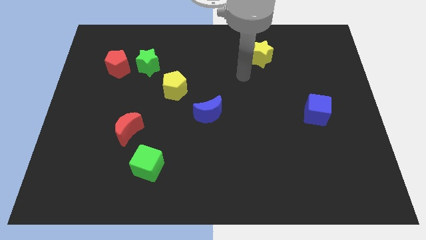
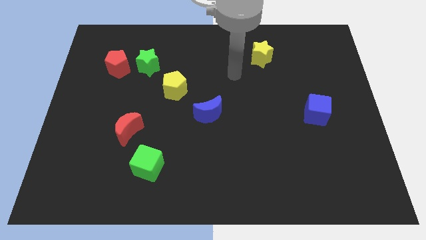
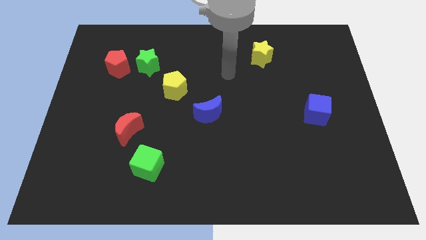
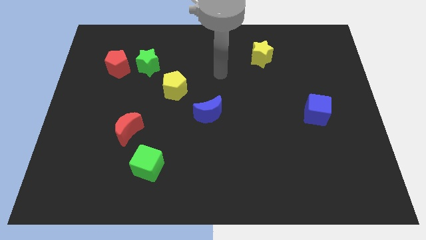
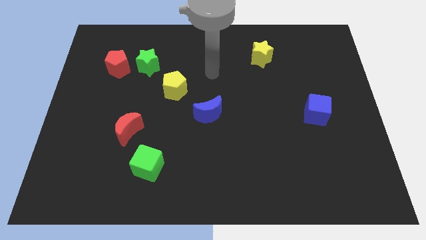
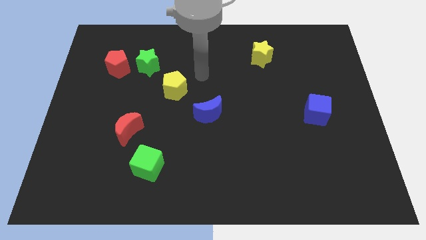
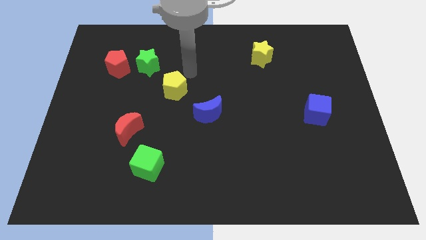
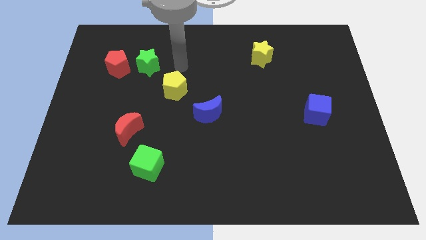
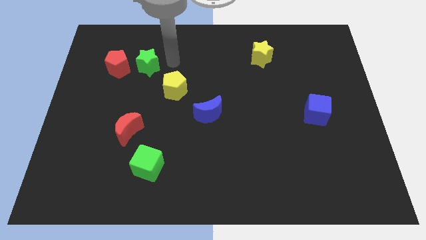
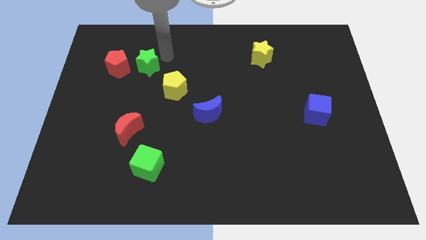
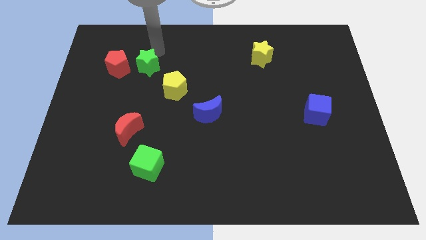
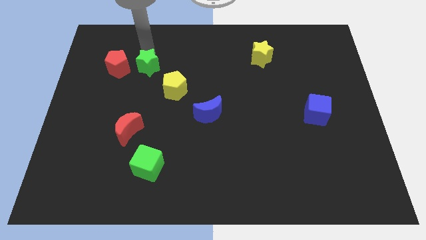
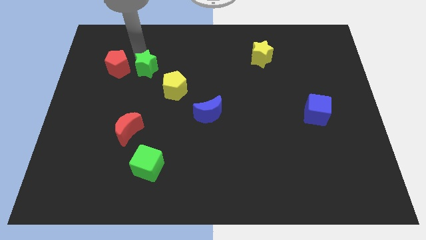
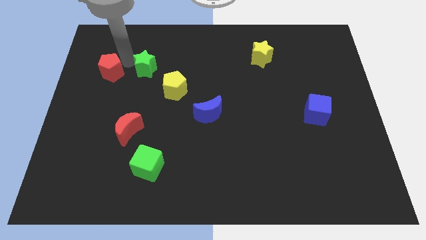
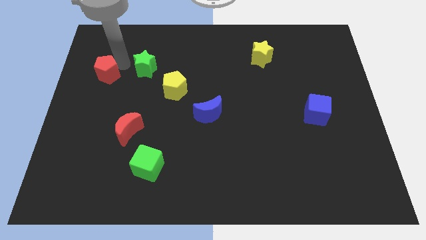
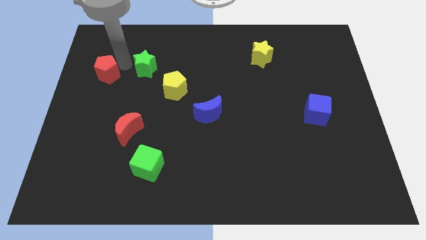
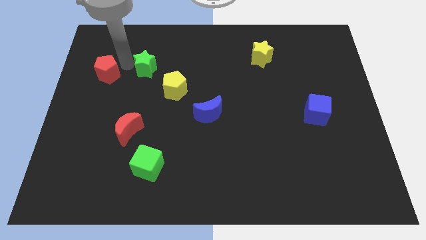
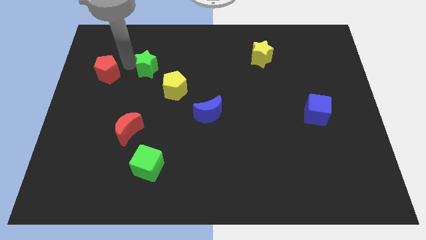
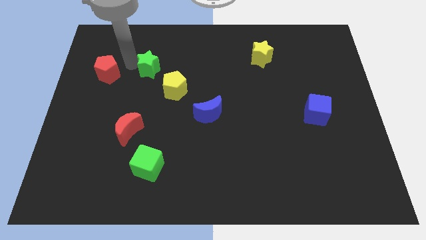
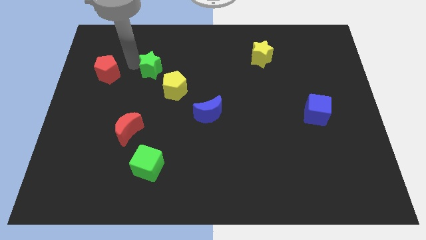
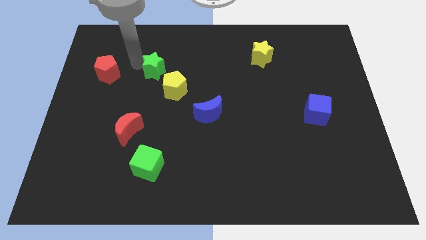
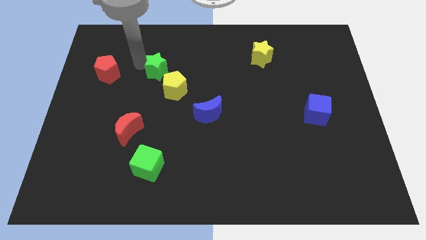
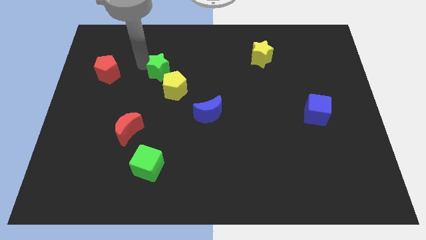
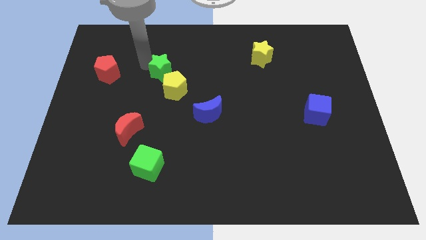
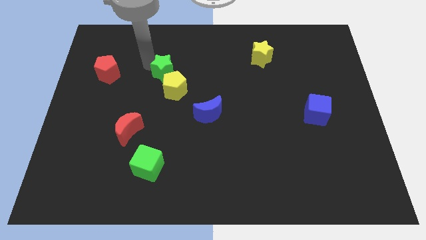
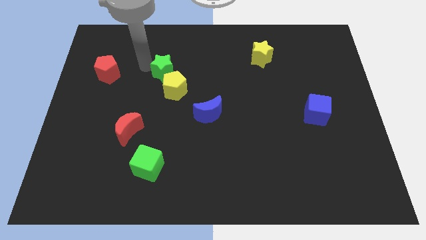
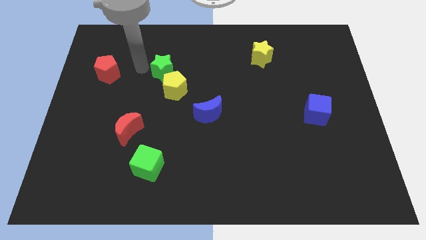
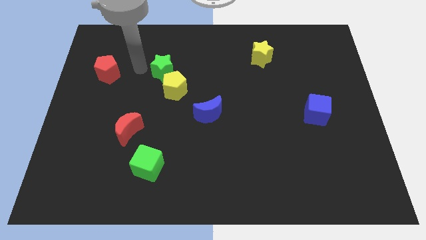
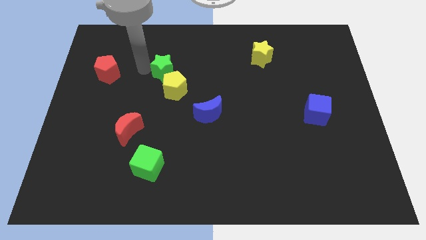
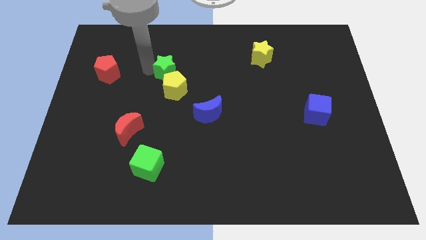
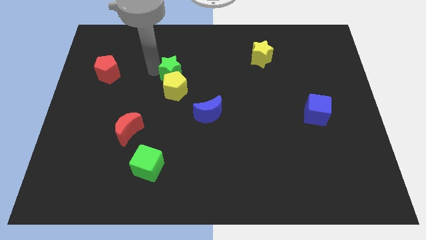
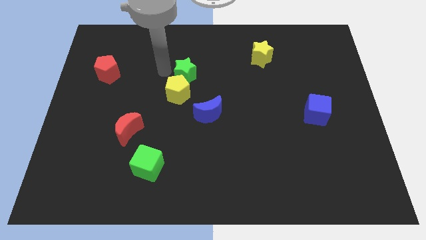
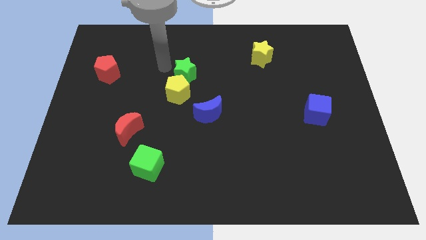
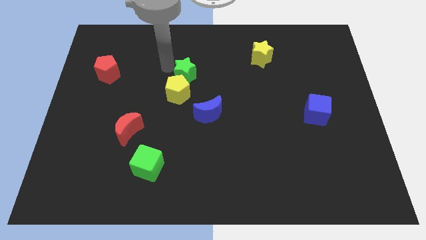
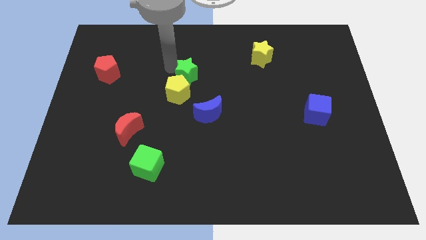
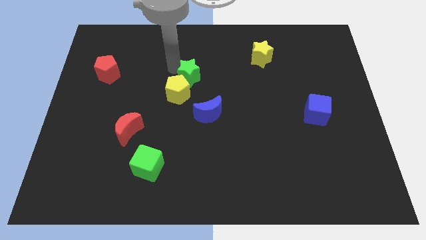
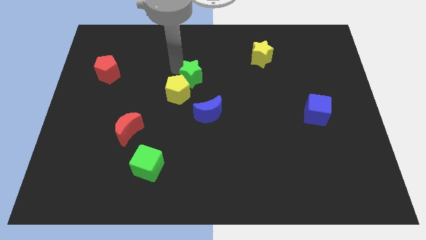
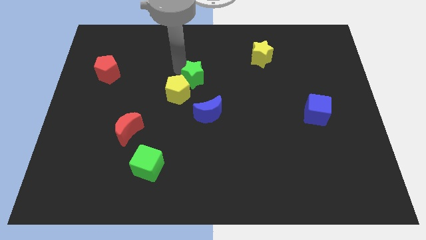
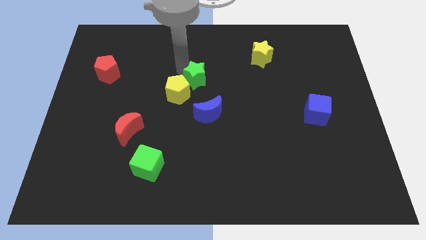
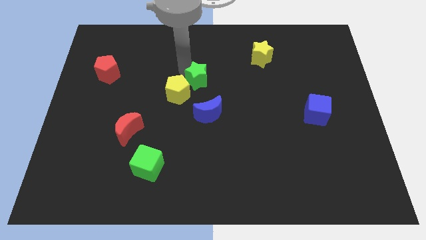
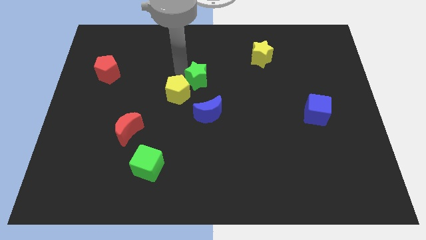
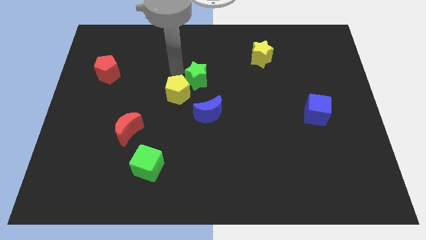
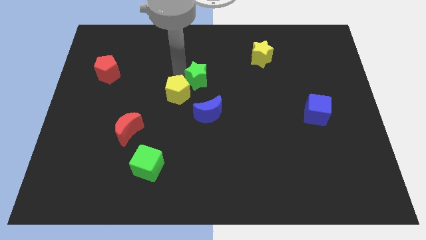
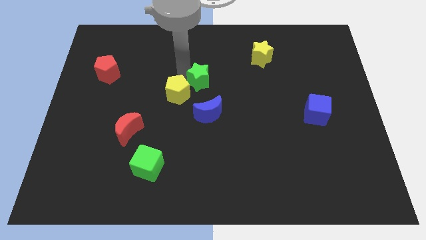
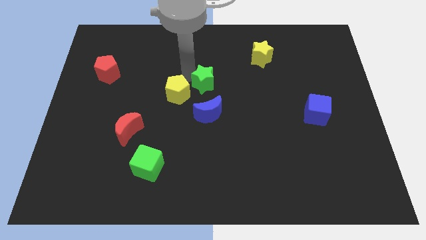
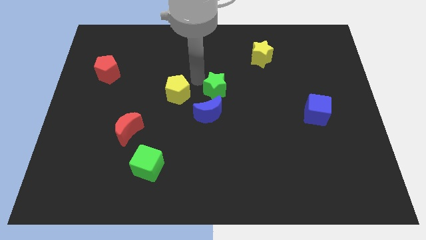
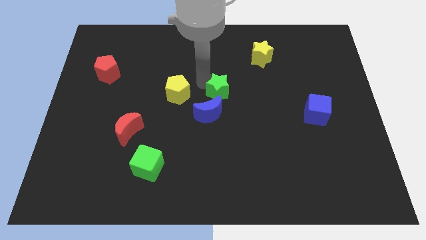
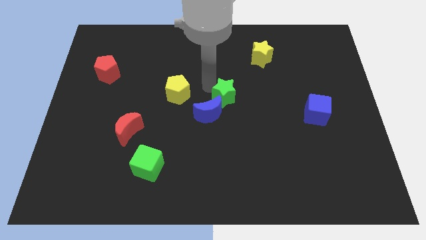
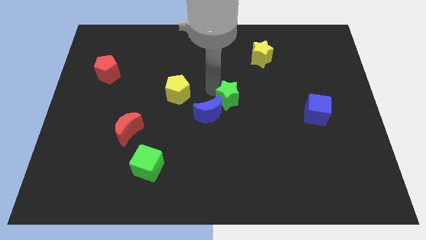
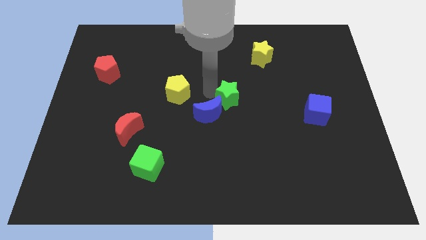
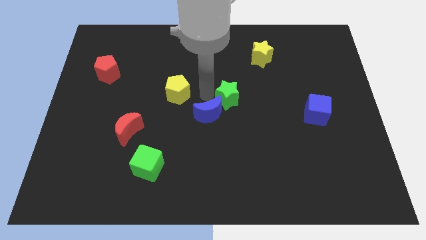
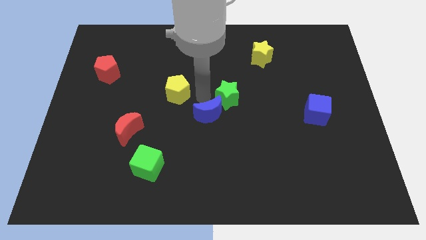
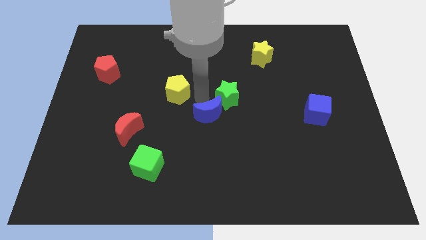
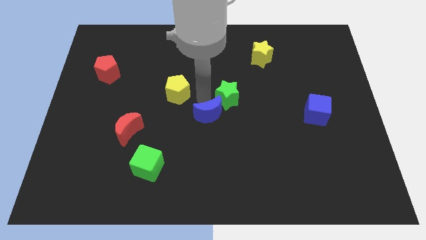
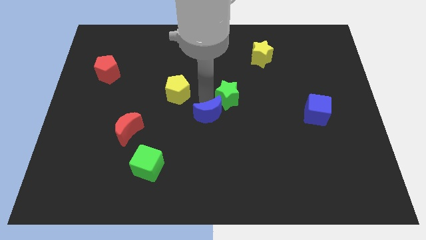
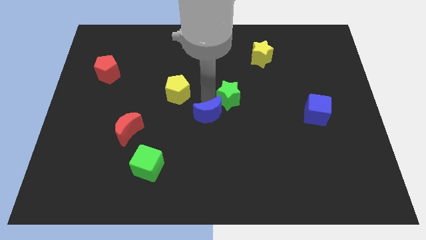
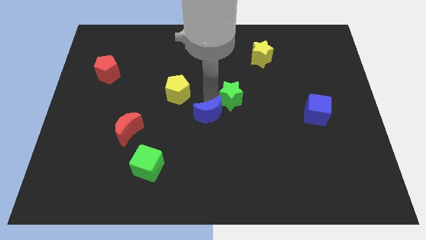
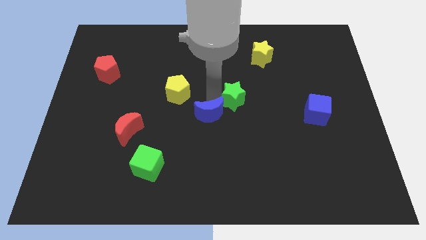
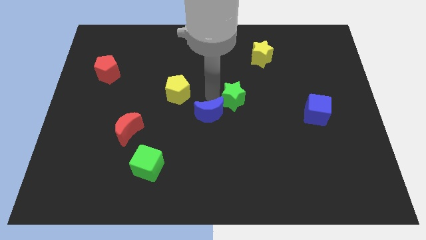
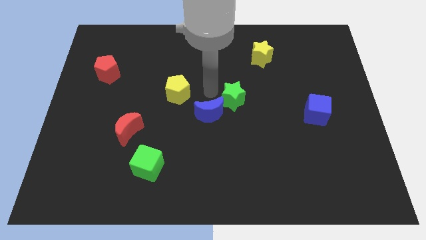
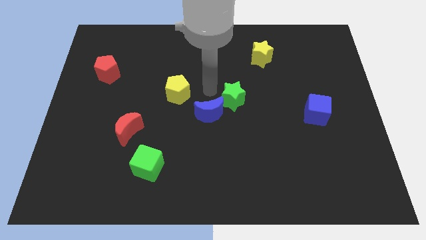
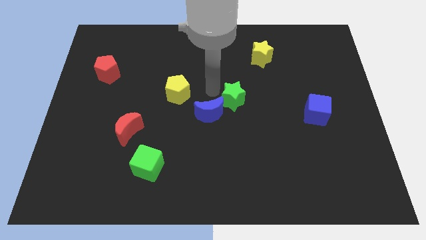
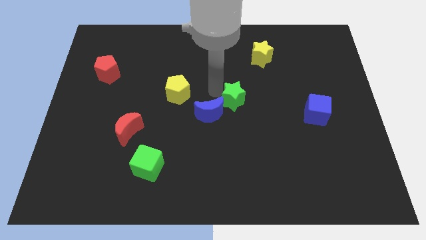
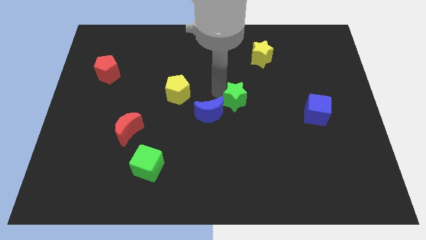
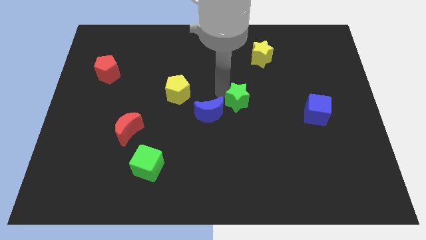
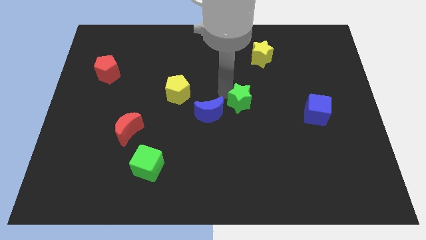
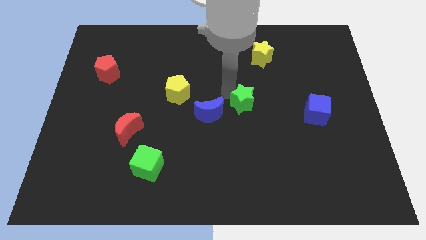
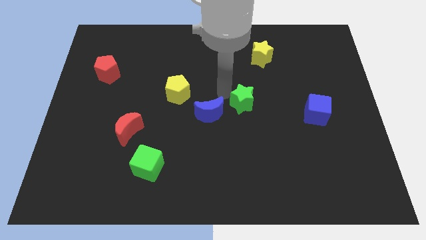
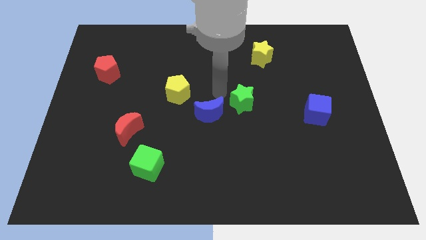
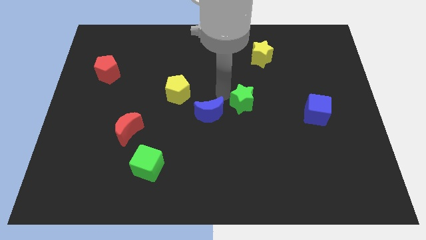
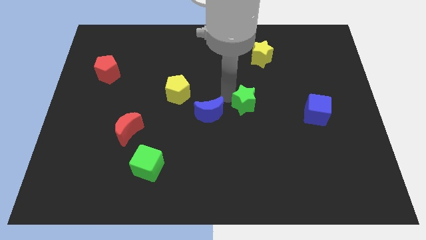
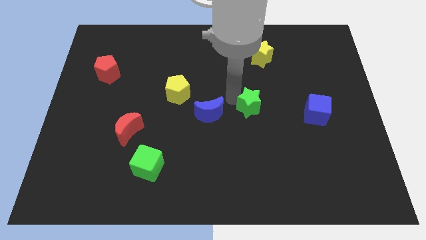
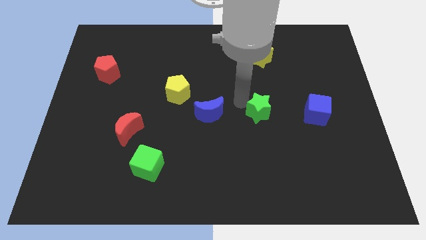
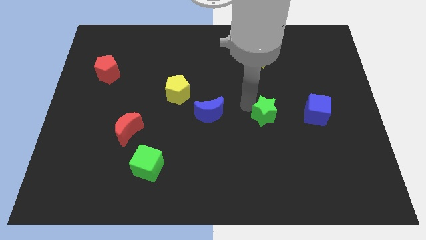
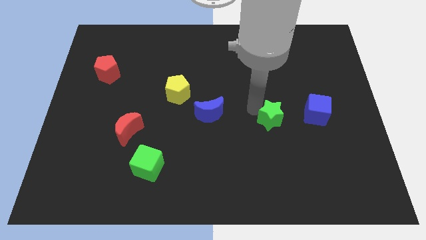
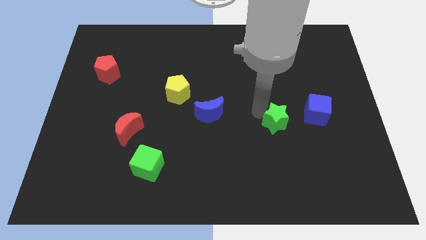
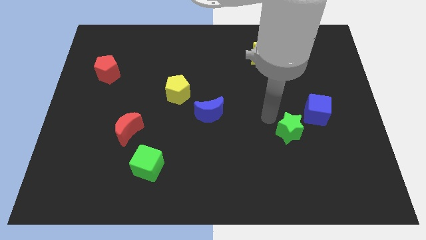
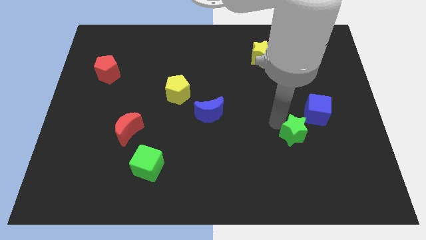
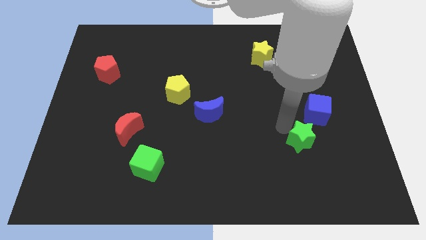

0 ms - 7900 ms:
move the green star to the bottom side of the blue cube
